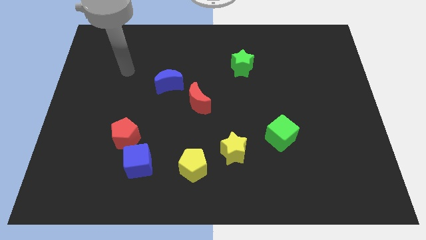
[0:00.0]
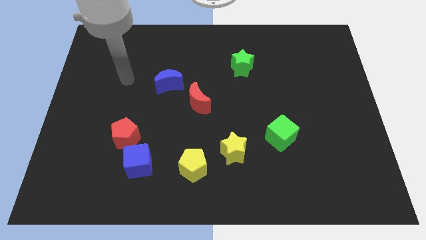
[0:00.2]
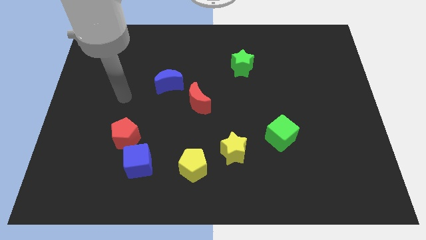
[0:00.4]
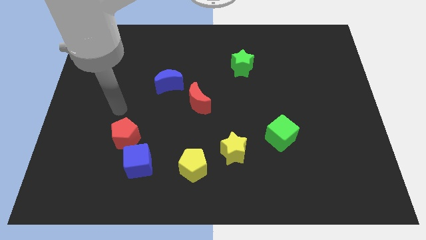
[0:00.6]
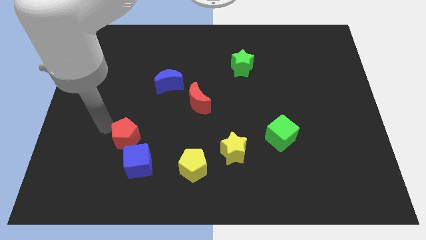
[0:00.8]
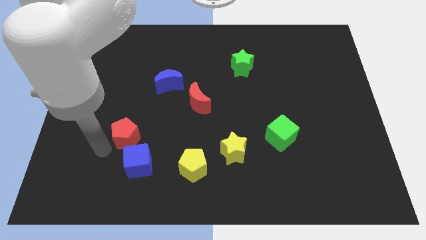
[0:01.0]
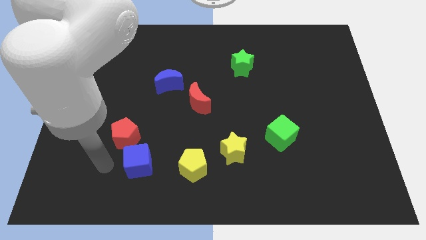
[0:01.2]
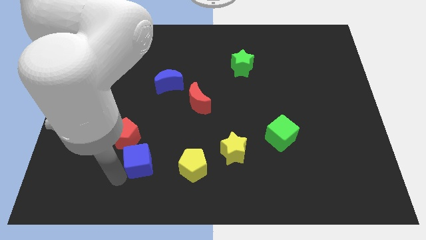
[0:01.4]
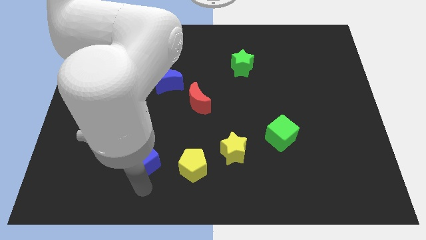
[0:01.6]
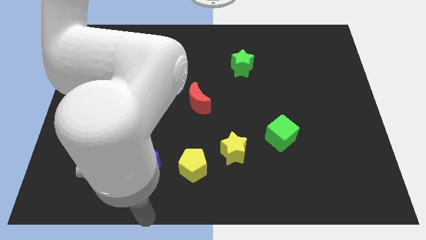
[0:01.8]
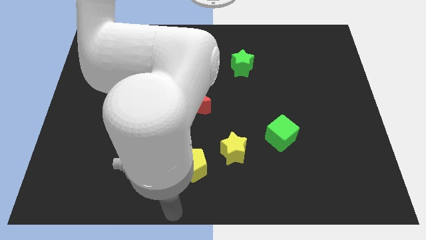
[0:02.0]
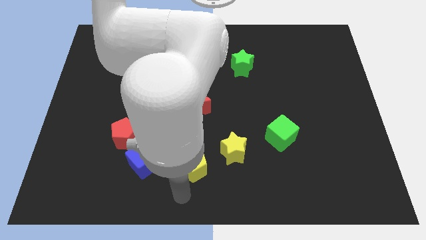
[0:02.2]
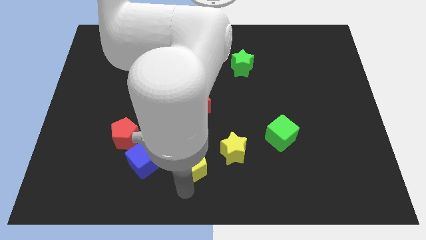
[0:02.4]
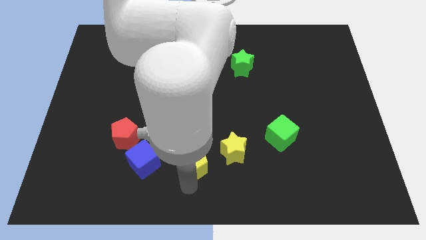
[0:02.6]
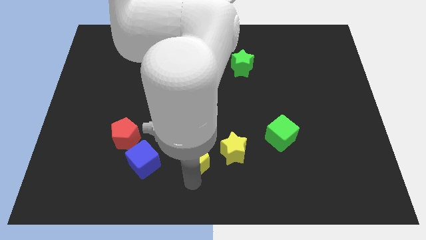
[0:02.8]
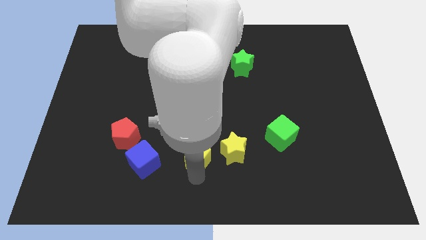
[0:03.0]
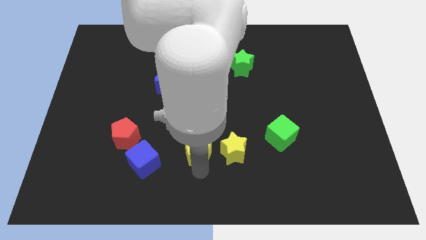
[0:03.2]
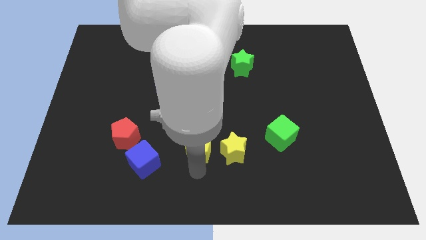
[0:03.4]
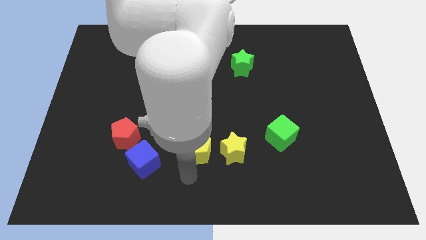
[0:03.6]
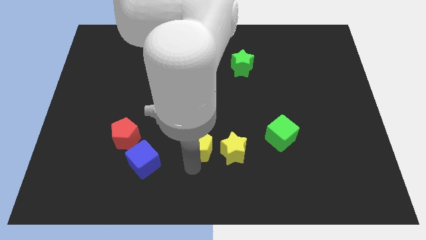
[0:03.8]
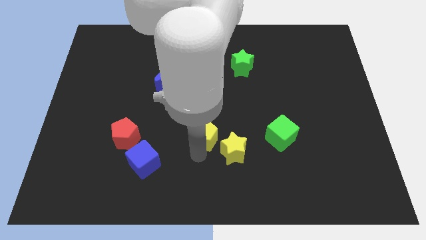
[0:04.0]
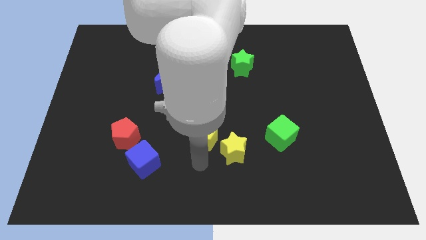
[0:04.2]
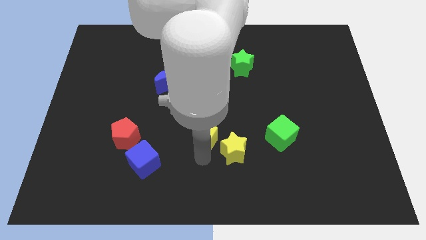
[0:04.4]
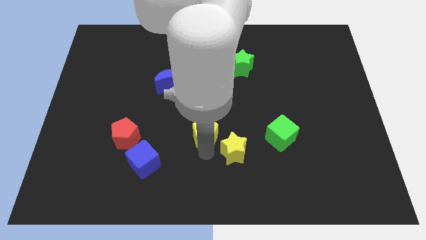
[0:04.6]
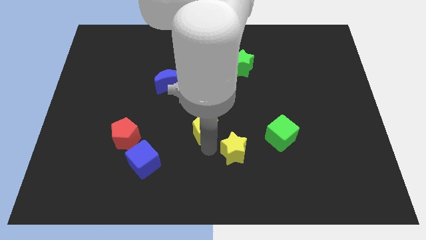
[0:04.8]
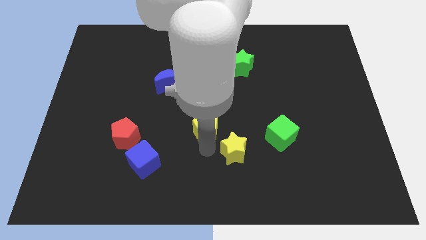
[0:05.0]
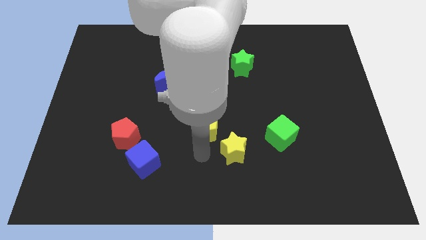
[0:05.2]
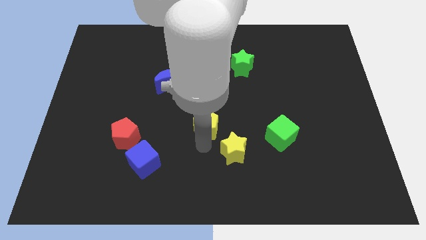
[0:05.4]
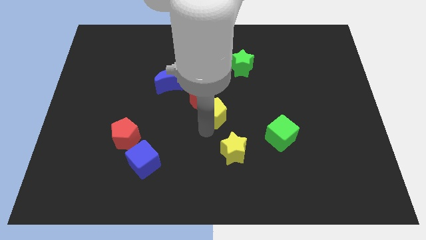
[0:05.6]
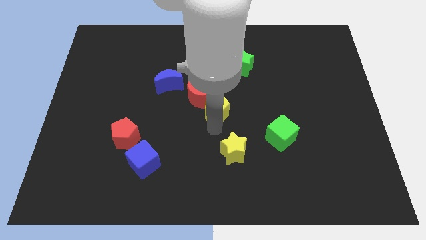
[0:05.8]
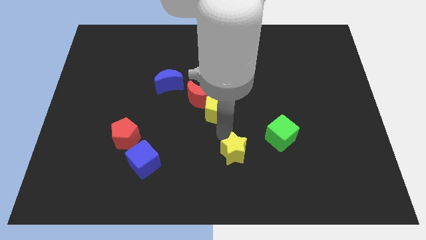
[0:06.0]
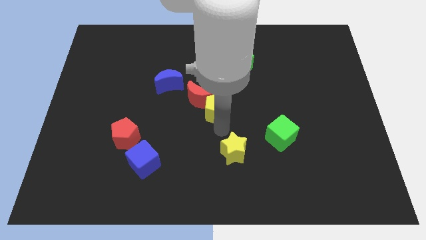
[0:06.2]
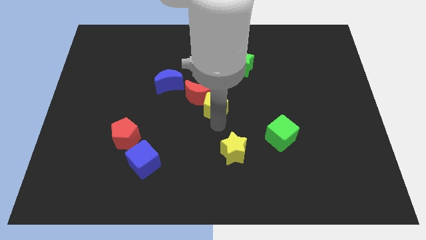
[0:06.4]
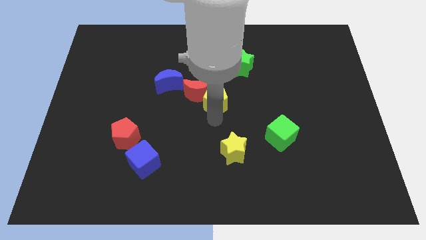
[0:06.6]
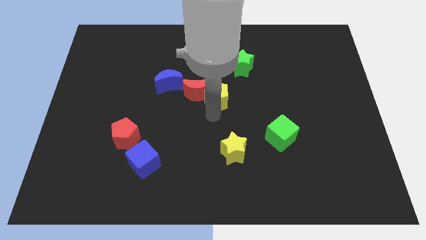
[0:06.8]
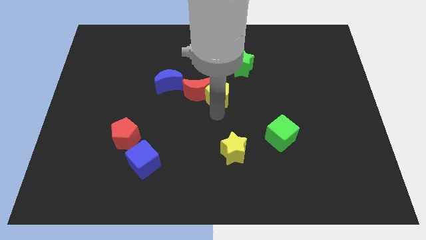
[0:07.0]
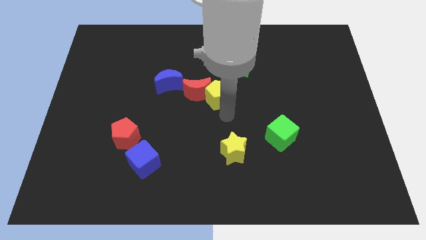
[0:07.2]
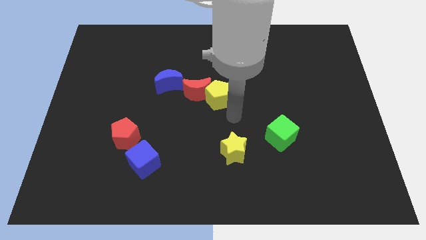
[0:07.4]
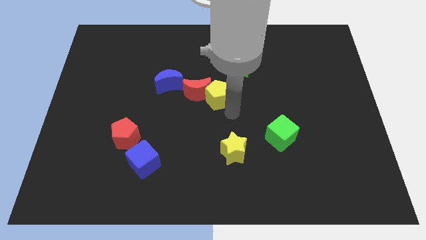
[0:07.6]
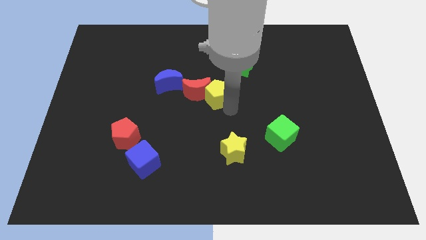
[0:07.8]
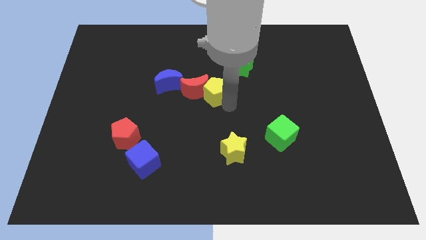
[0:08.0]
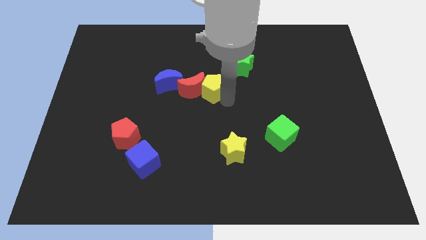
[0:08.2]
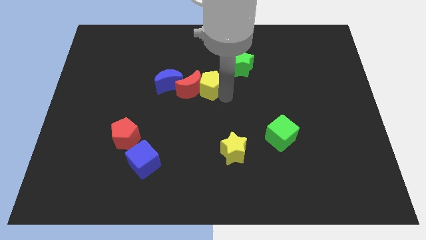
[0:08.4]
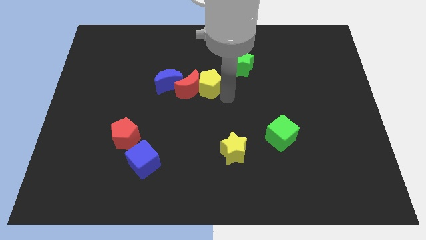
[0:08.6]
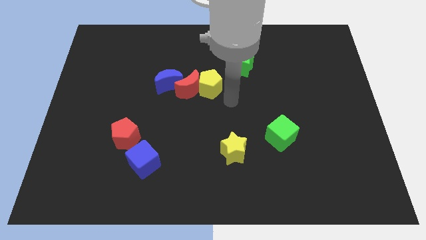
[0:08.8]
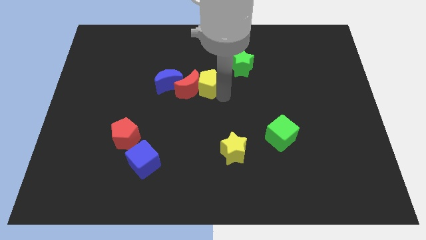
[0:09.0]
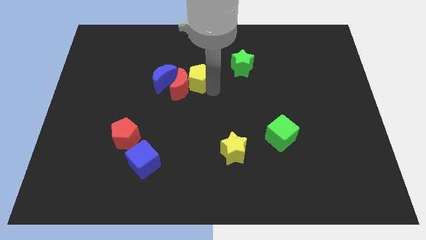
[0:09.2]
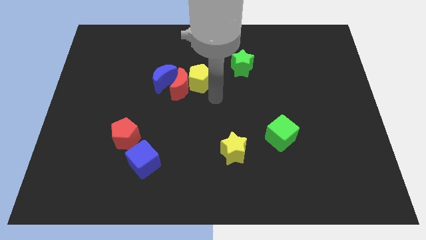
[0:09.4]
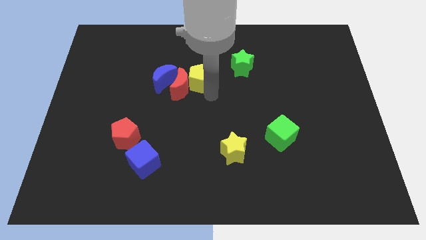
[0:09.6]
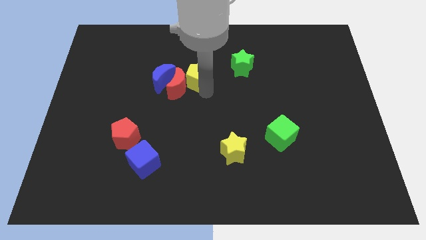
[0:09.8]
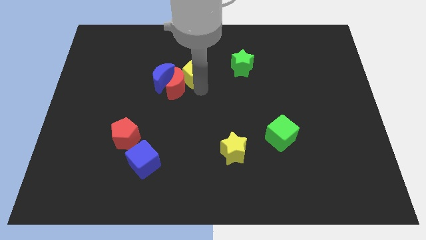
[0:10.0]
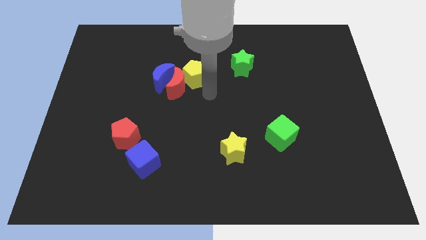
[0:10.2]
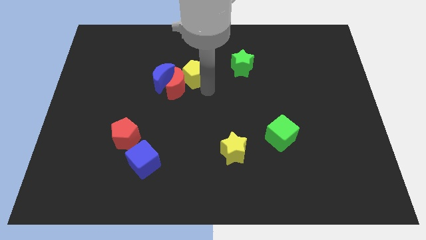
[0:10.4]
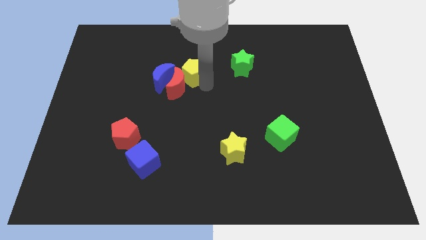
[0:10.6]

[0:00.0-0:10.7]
push the yellow pentagon to the top right of the blue moon

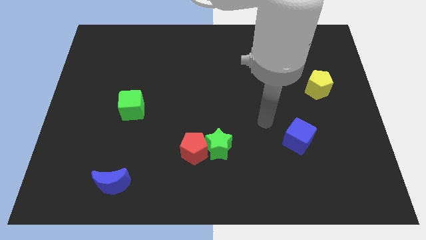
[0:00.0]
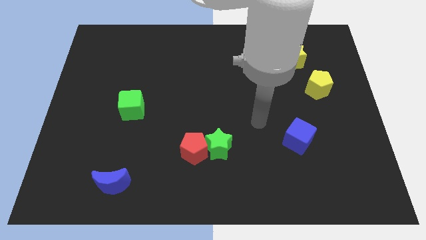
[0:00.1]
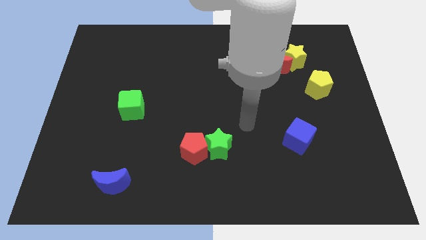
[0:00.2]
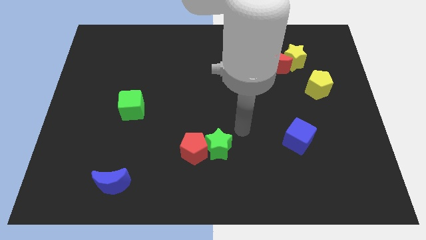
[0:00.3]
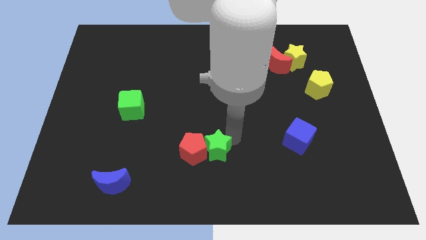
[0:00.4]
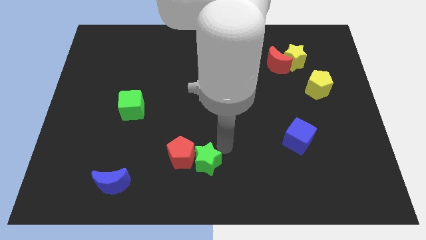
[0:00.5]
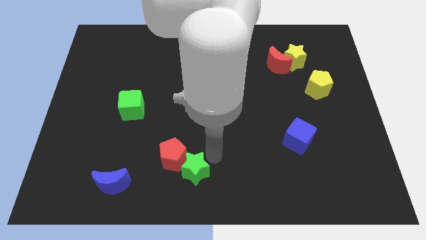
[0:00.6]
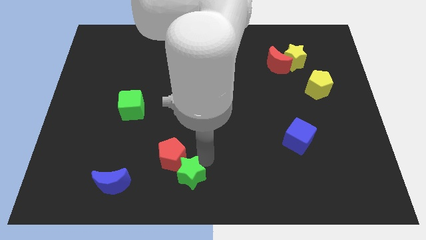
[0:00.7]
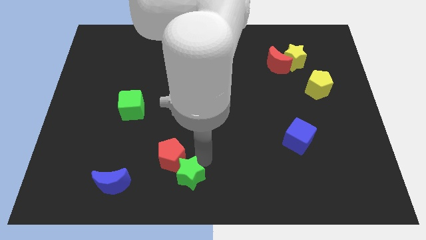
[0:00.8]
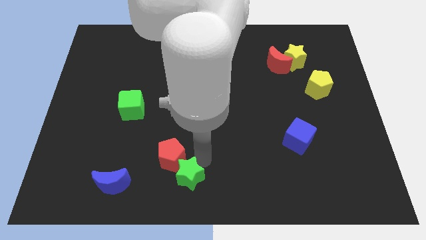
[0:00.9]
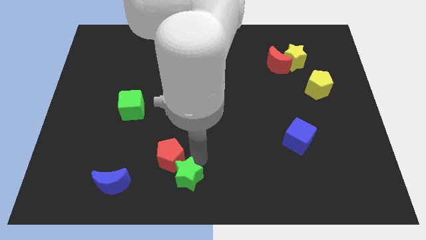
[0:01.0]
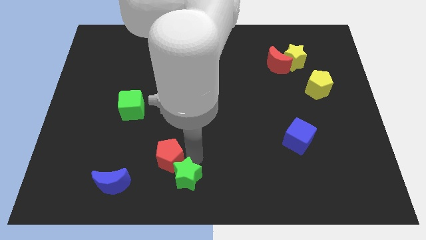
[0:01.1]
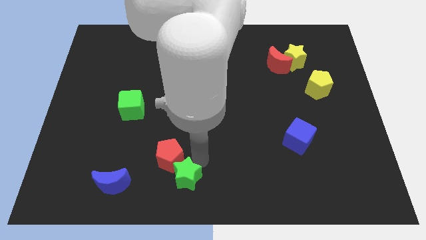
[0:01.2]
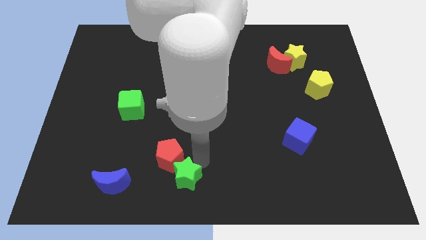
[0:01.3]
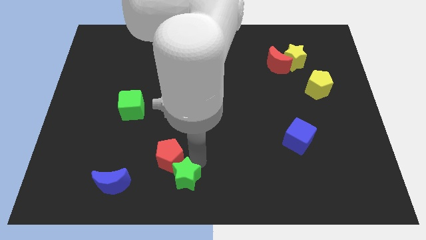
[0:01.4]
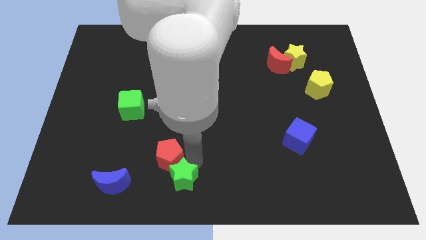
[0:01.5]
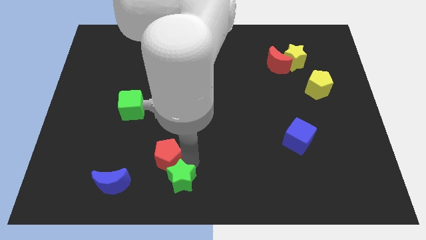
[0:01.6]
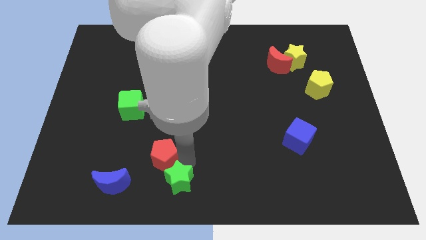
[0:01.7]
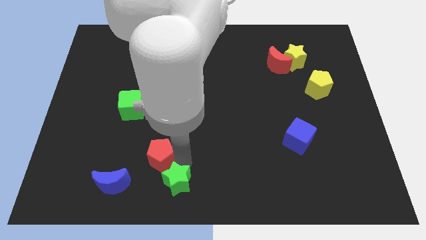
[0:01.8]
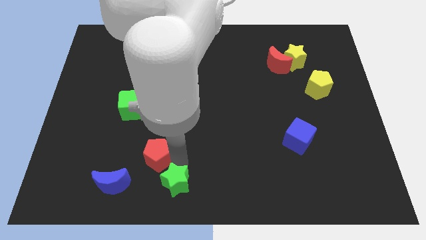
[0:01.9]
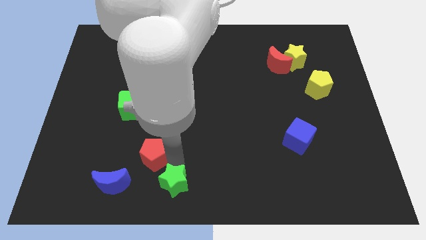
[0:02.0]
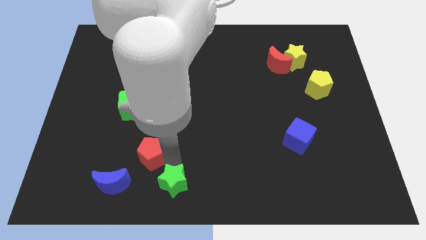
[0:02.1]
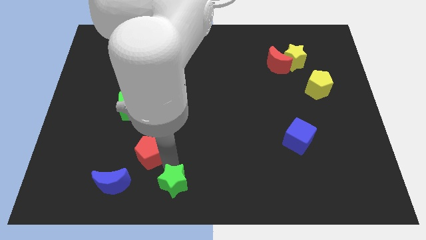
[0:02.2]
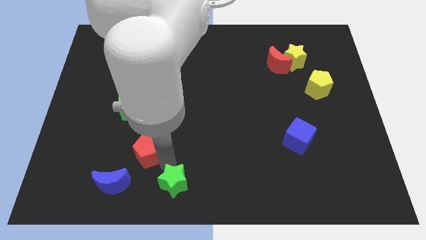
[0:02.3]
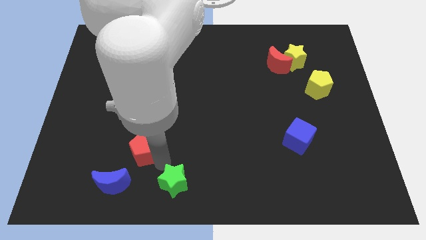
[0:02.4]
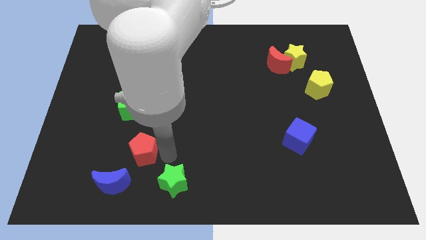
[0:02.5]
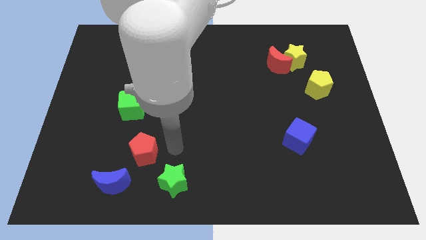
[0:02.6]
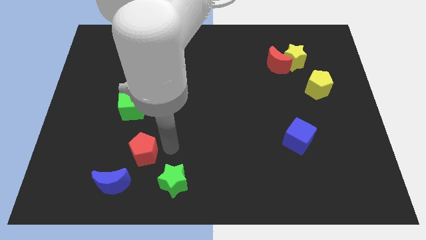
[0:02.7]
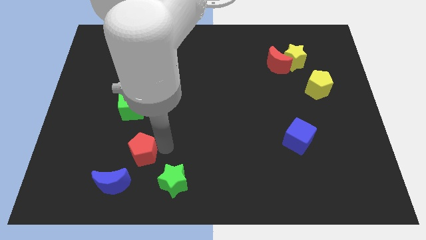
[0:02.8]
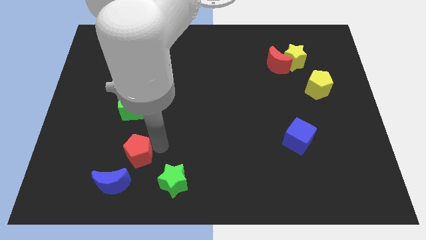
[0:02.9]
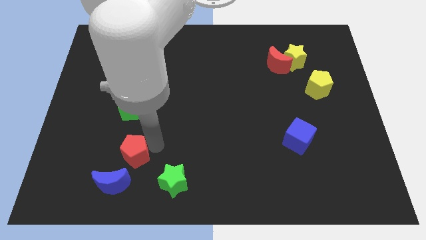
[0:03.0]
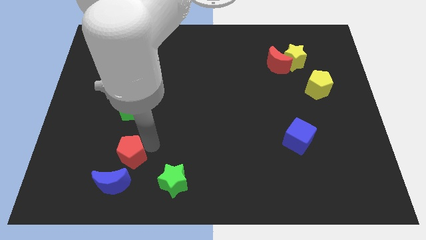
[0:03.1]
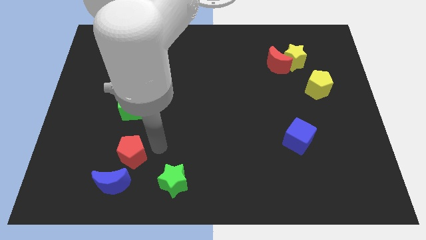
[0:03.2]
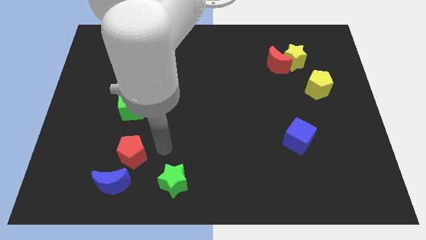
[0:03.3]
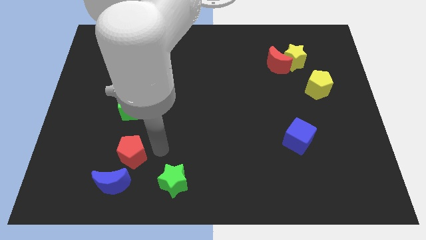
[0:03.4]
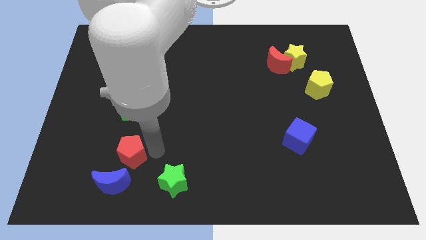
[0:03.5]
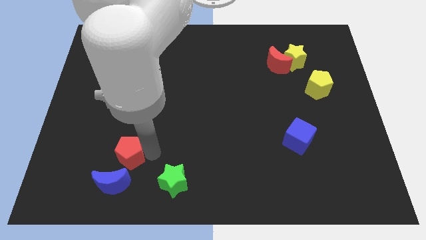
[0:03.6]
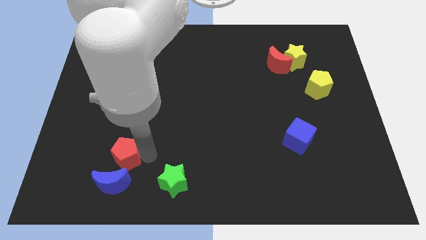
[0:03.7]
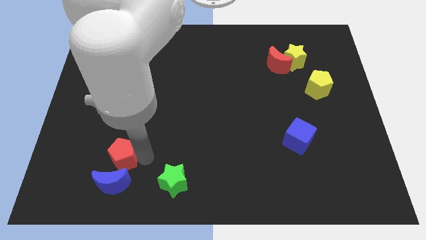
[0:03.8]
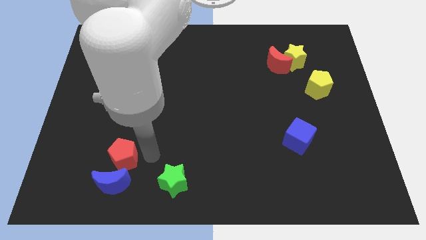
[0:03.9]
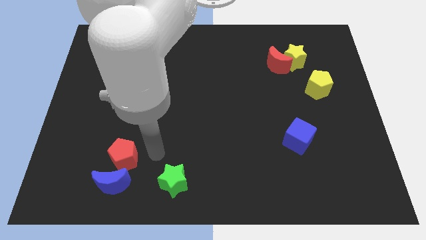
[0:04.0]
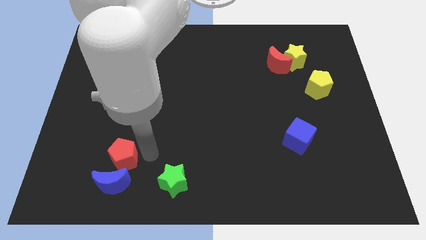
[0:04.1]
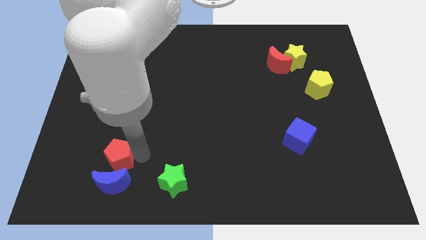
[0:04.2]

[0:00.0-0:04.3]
move the red pentagon to the top left of the blue moon
